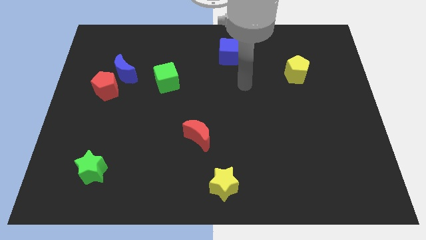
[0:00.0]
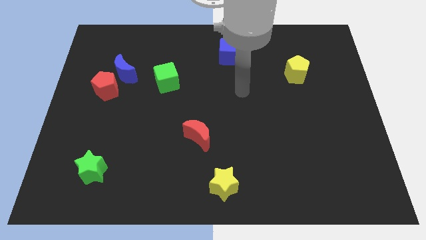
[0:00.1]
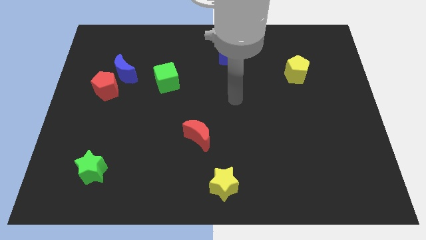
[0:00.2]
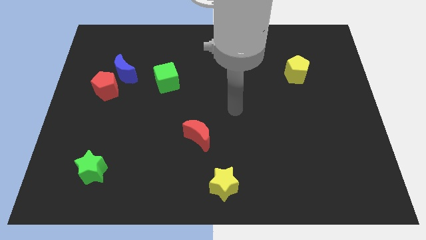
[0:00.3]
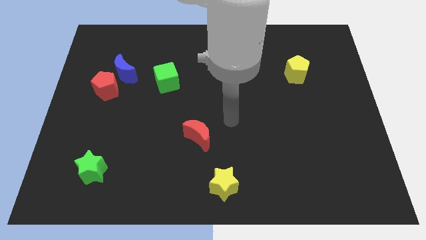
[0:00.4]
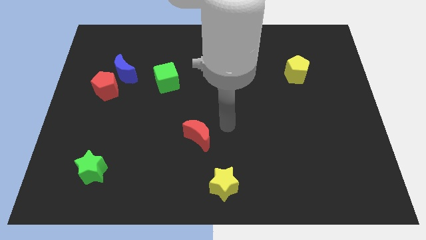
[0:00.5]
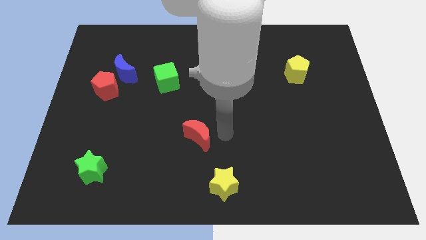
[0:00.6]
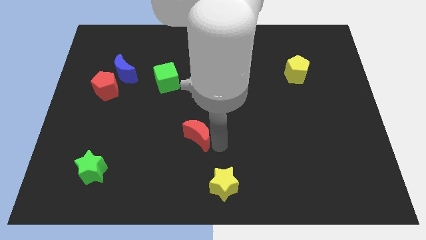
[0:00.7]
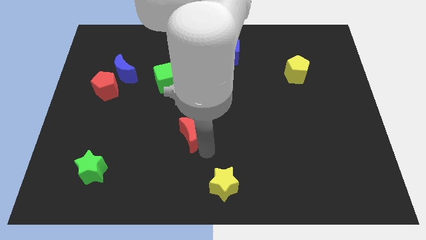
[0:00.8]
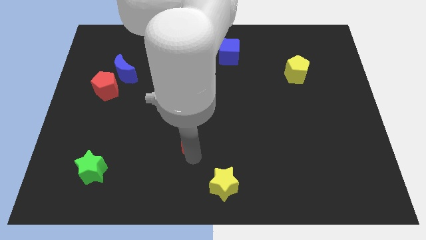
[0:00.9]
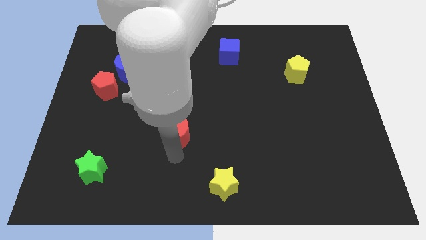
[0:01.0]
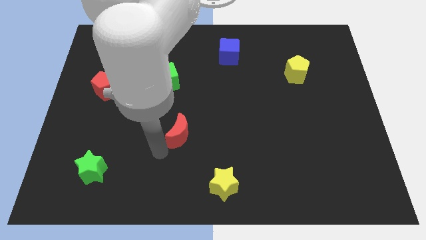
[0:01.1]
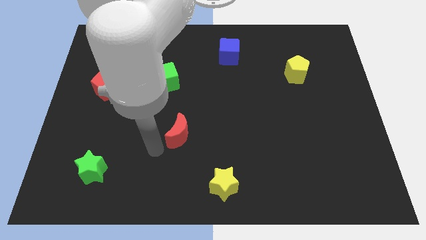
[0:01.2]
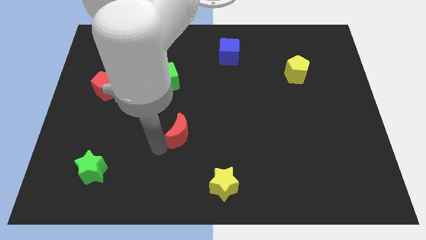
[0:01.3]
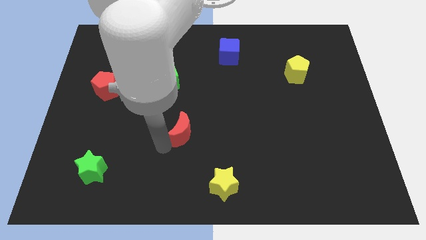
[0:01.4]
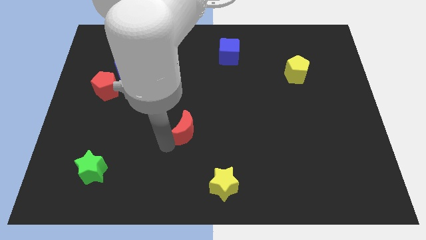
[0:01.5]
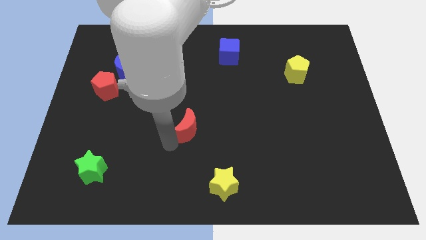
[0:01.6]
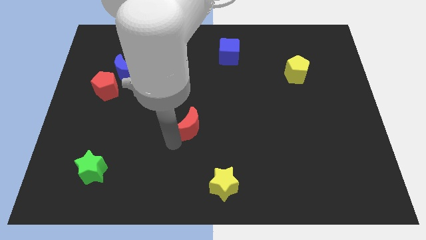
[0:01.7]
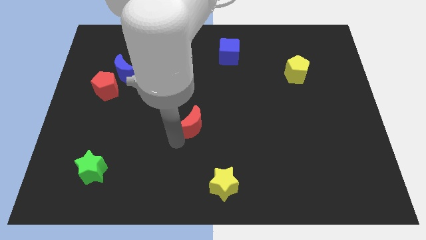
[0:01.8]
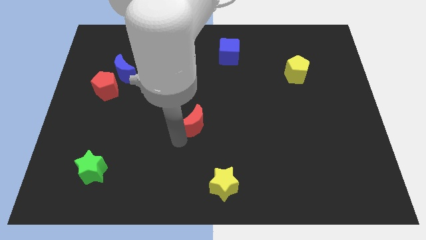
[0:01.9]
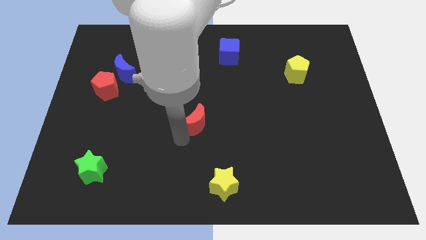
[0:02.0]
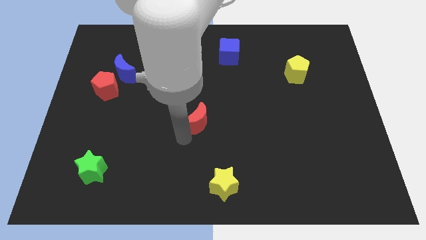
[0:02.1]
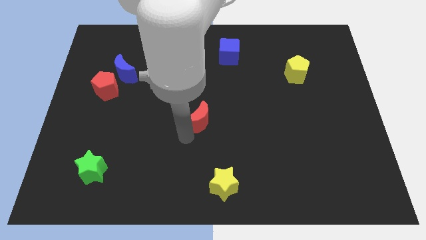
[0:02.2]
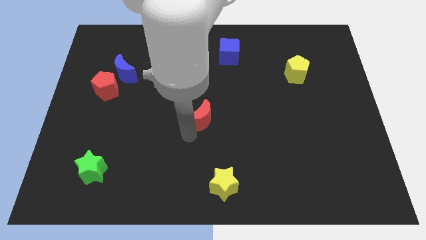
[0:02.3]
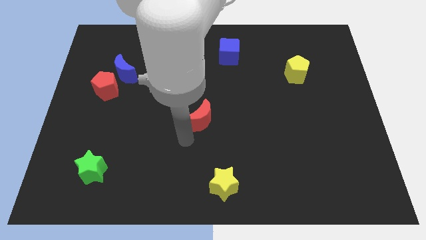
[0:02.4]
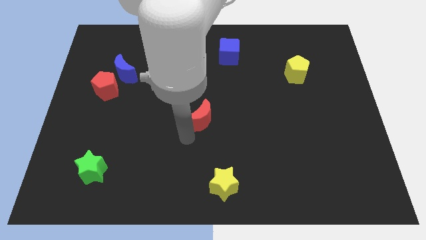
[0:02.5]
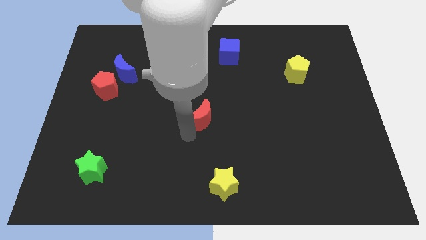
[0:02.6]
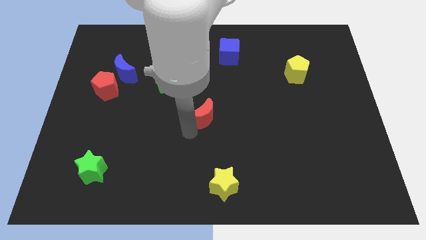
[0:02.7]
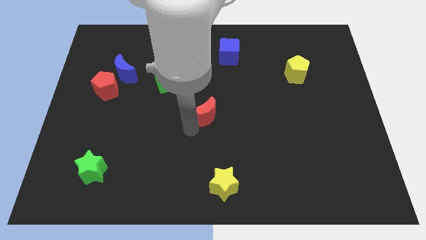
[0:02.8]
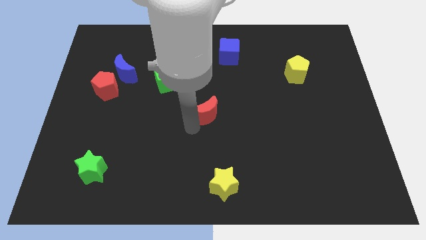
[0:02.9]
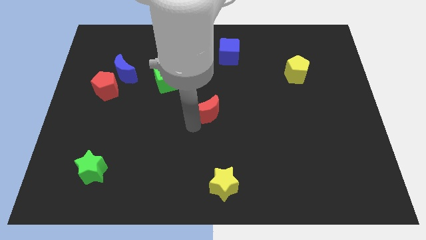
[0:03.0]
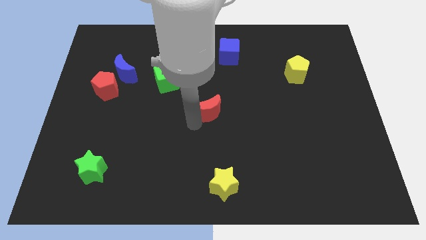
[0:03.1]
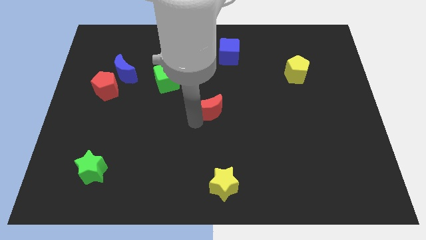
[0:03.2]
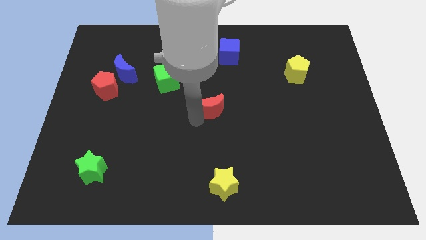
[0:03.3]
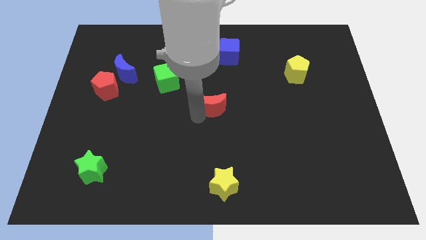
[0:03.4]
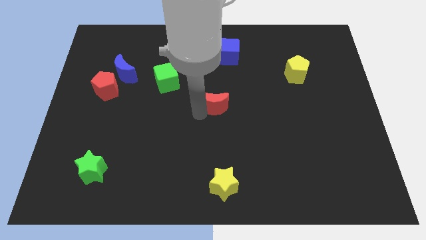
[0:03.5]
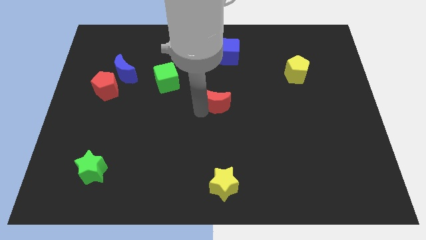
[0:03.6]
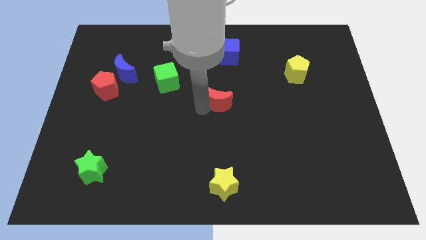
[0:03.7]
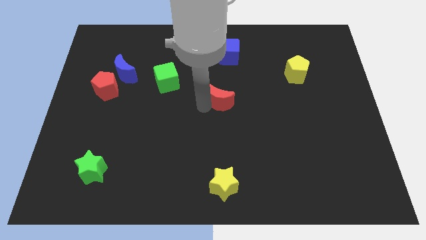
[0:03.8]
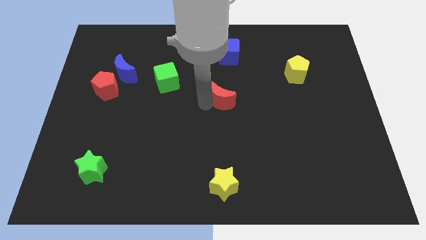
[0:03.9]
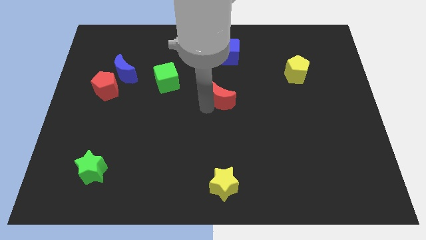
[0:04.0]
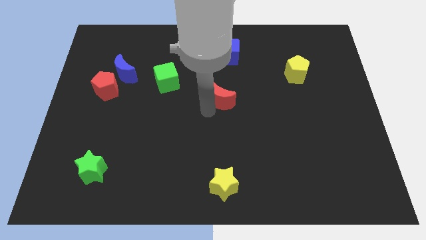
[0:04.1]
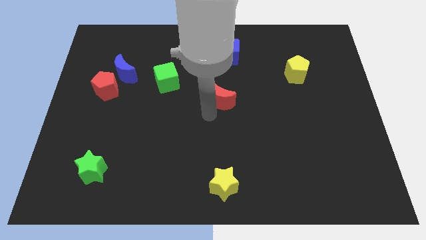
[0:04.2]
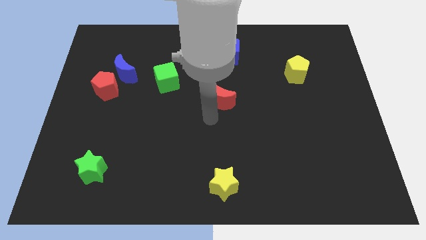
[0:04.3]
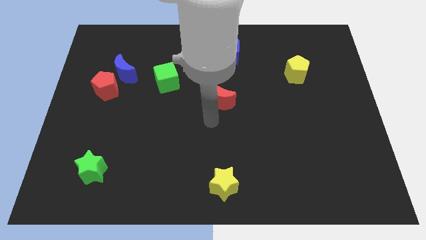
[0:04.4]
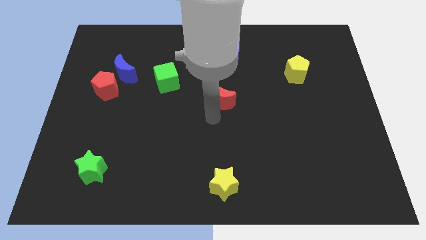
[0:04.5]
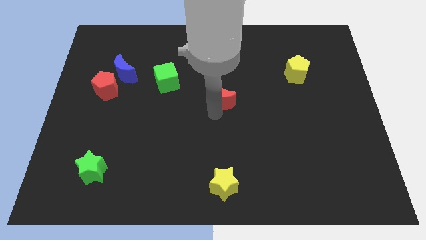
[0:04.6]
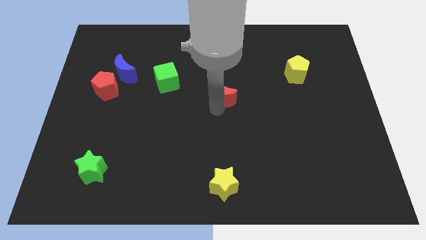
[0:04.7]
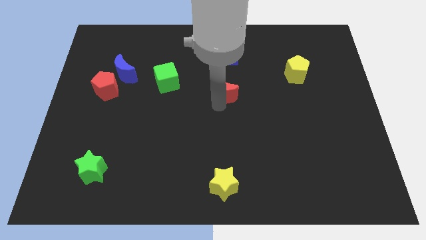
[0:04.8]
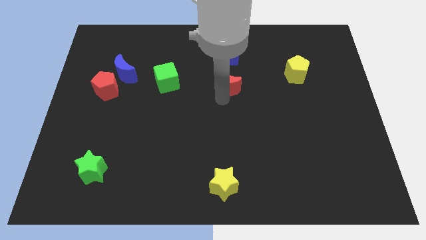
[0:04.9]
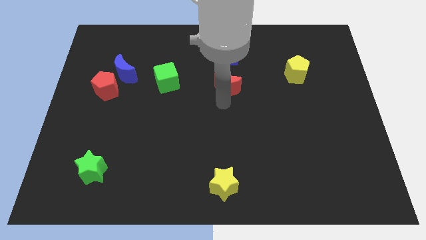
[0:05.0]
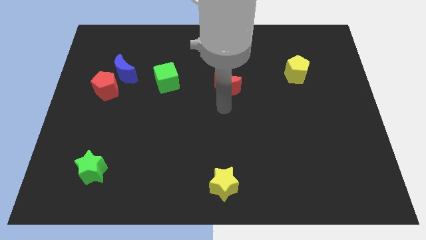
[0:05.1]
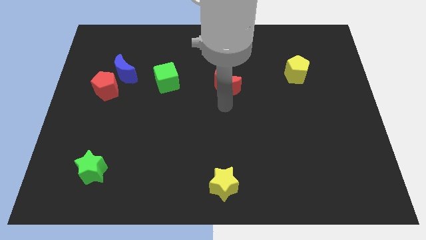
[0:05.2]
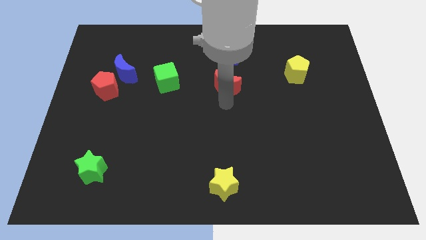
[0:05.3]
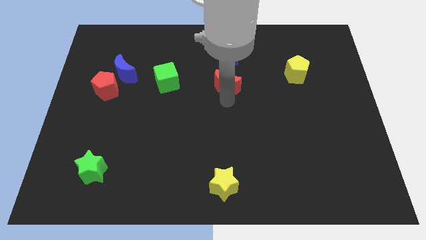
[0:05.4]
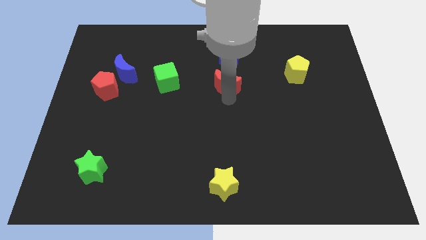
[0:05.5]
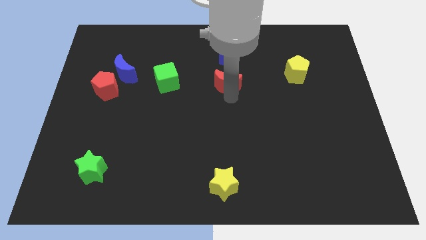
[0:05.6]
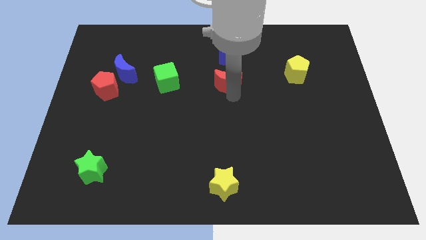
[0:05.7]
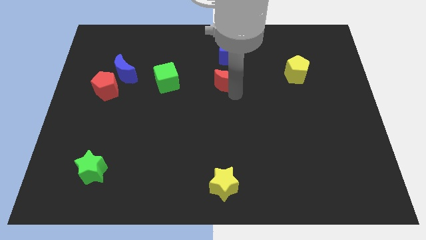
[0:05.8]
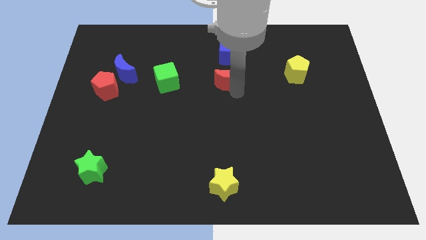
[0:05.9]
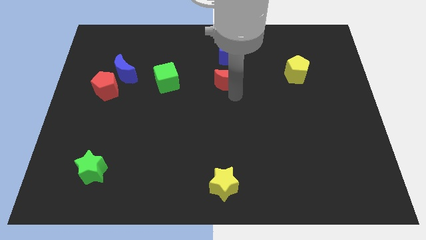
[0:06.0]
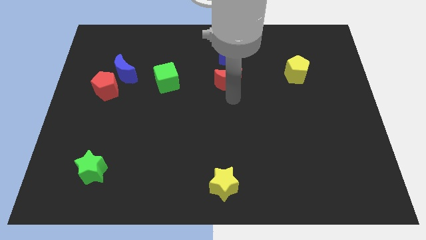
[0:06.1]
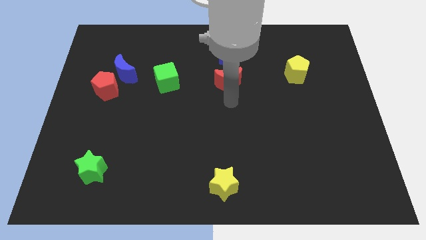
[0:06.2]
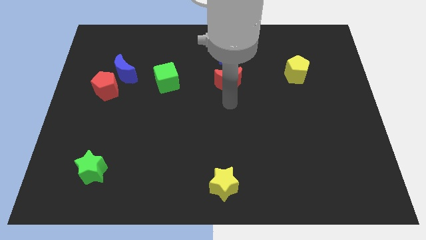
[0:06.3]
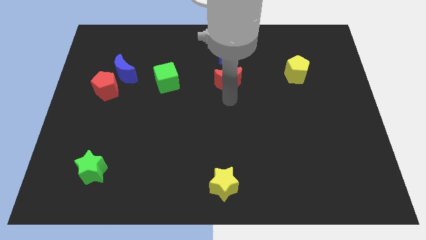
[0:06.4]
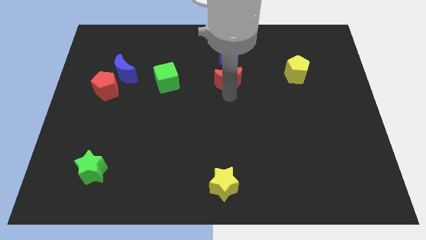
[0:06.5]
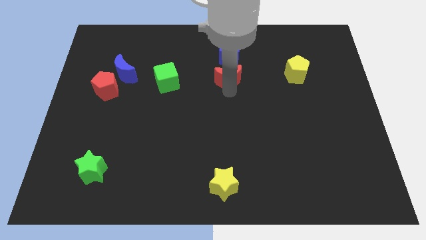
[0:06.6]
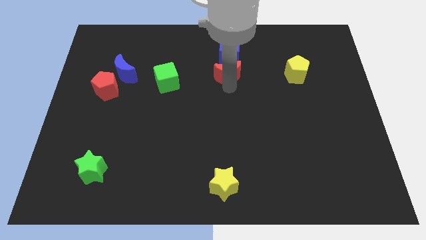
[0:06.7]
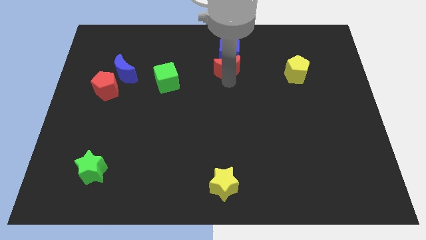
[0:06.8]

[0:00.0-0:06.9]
push the red moon to the blue cube

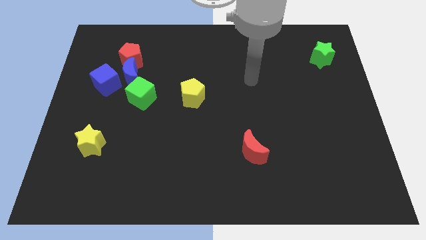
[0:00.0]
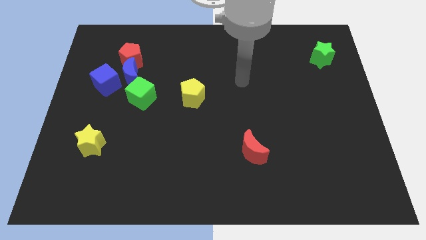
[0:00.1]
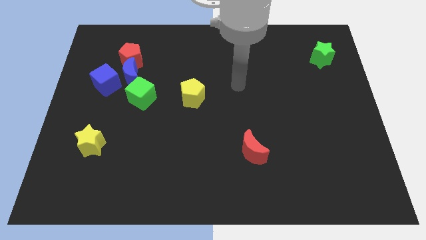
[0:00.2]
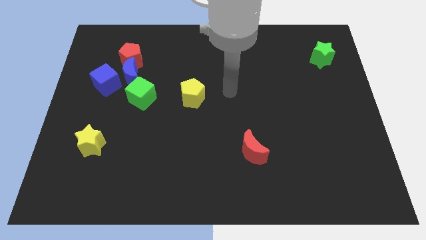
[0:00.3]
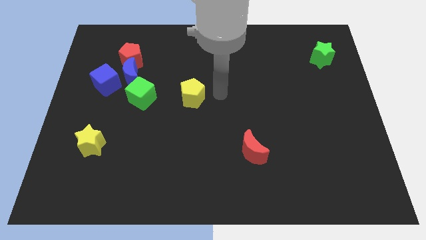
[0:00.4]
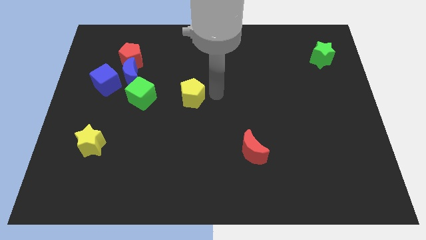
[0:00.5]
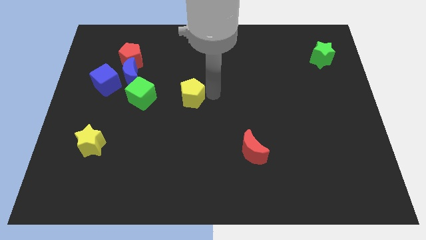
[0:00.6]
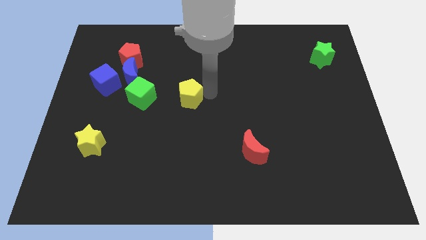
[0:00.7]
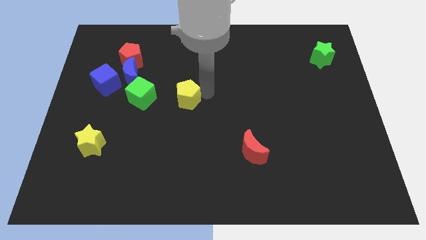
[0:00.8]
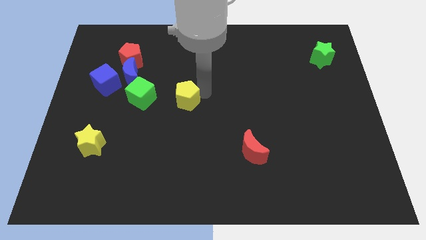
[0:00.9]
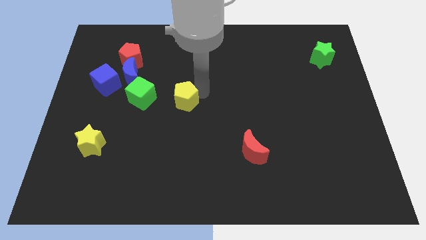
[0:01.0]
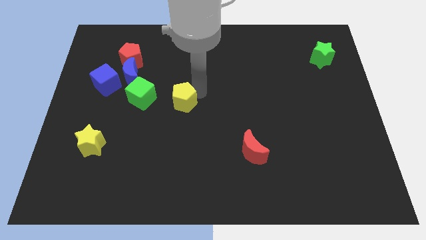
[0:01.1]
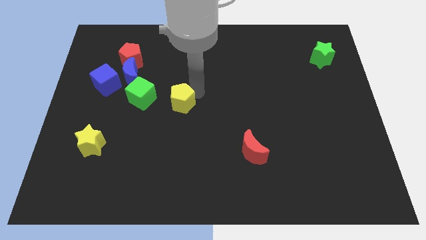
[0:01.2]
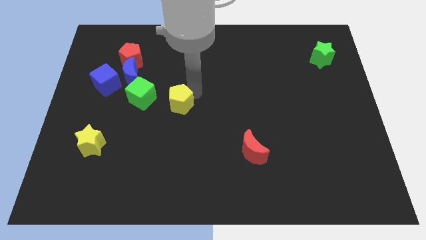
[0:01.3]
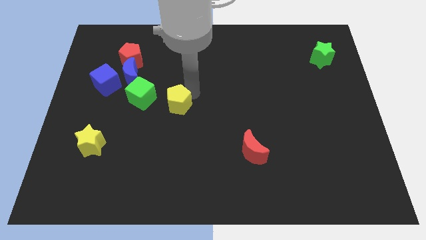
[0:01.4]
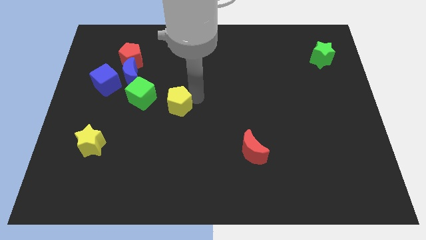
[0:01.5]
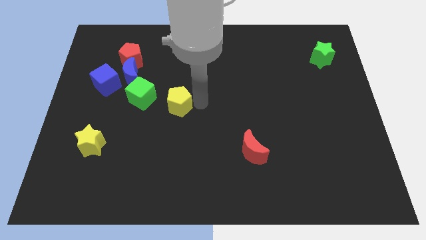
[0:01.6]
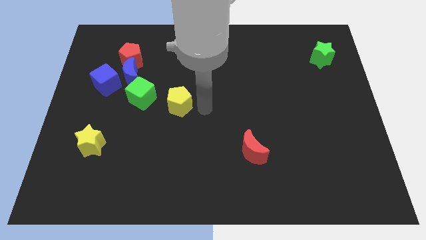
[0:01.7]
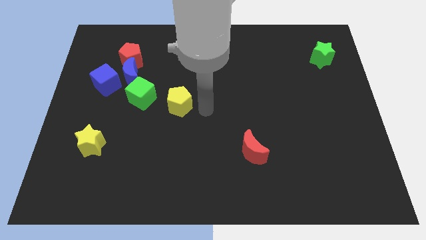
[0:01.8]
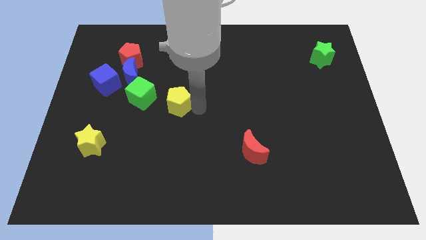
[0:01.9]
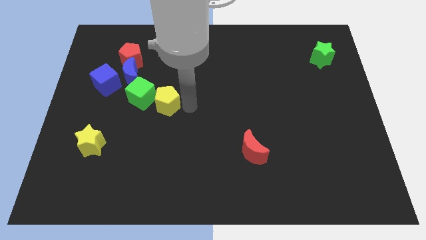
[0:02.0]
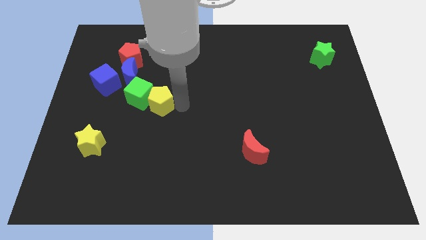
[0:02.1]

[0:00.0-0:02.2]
put the yellow pentagon next to the green cube
